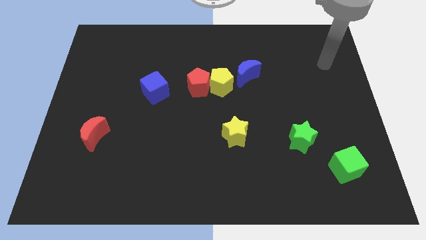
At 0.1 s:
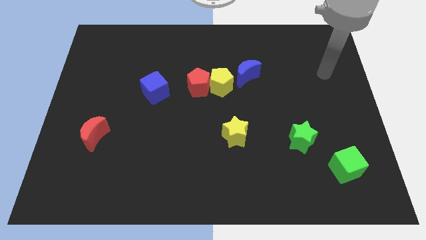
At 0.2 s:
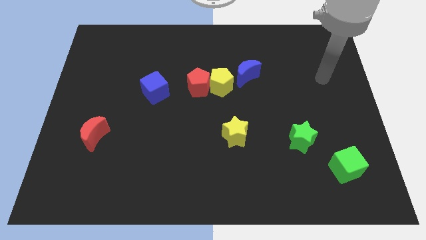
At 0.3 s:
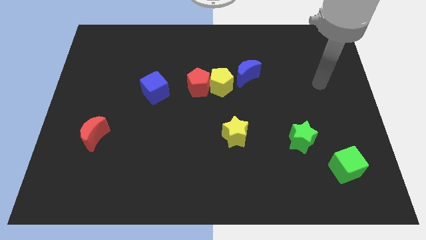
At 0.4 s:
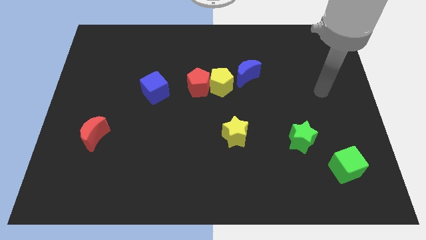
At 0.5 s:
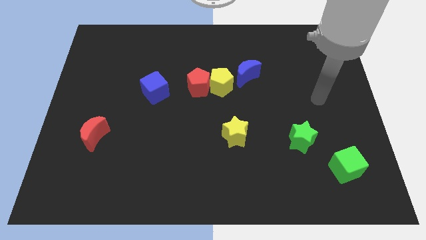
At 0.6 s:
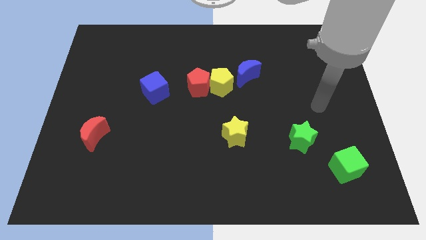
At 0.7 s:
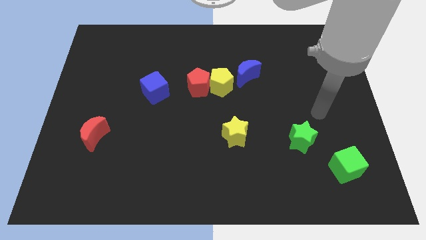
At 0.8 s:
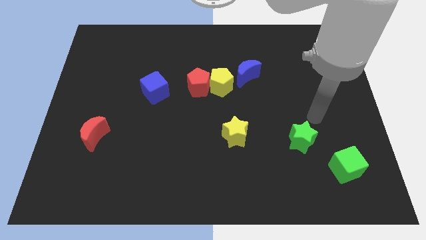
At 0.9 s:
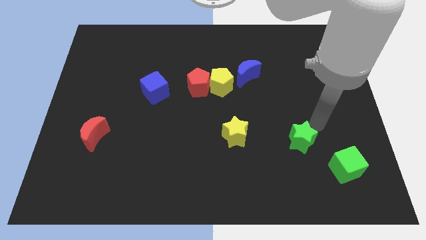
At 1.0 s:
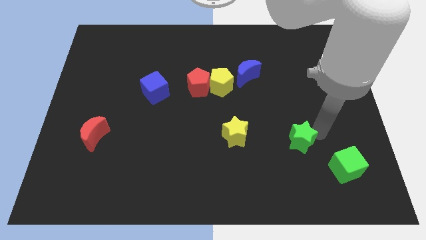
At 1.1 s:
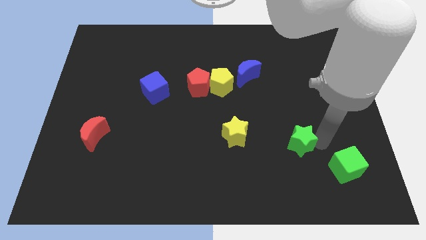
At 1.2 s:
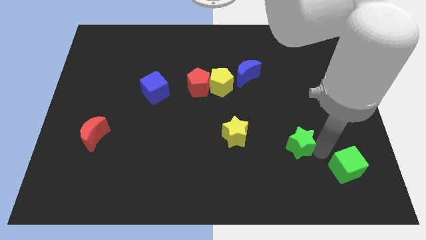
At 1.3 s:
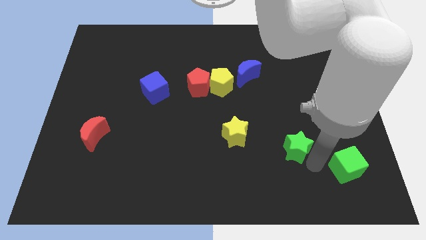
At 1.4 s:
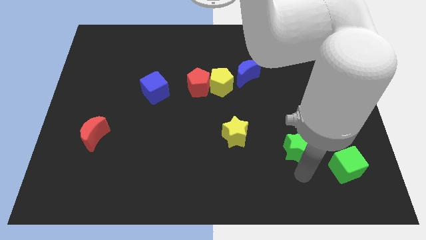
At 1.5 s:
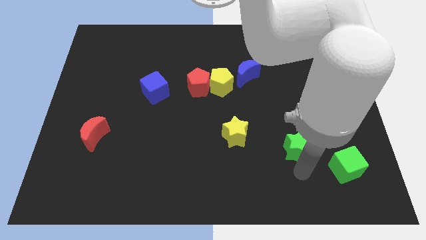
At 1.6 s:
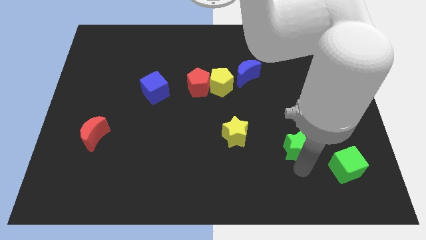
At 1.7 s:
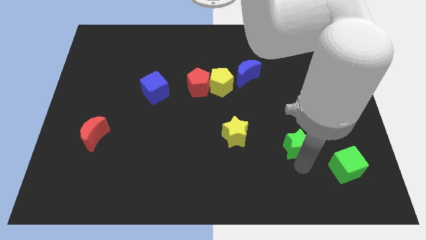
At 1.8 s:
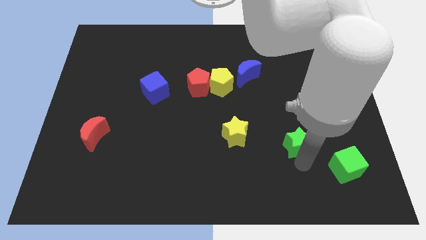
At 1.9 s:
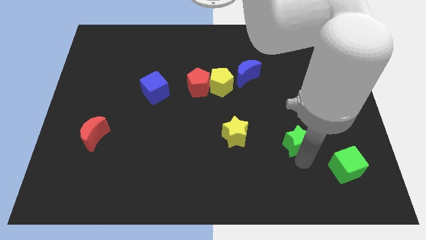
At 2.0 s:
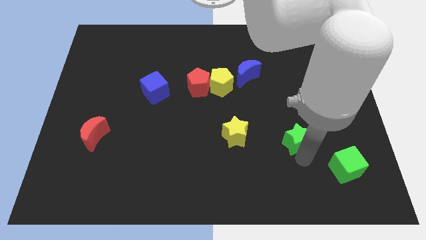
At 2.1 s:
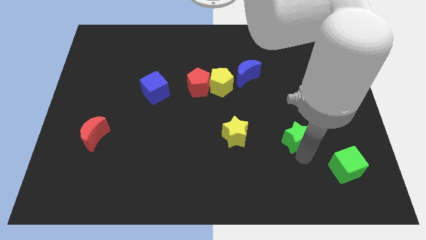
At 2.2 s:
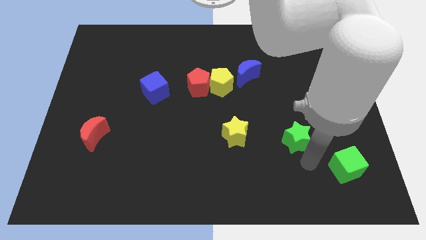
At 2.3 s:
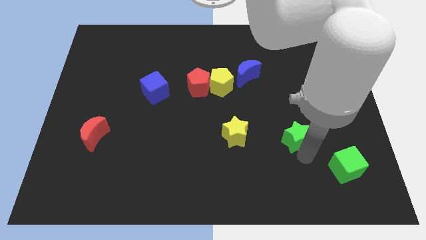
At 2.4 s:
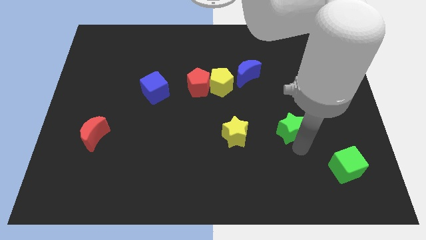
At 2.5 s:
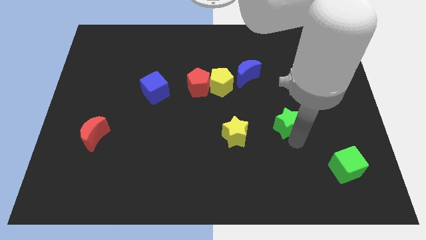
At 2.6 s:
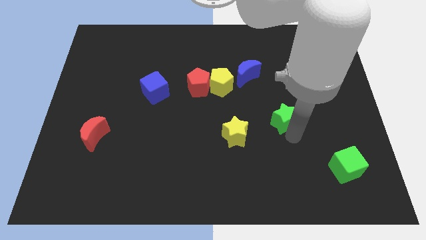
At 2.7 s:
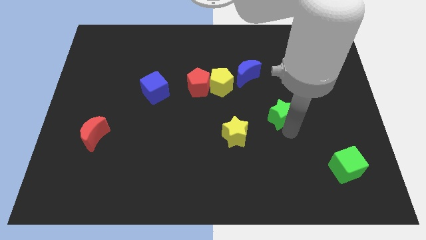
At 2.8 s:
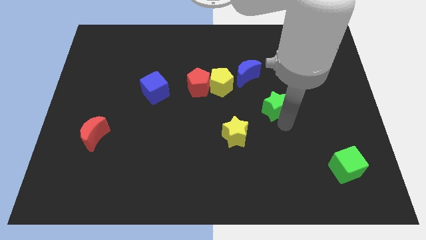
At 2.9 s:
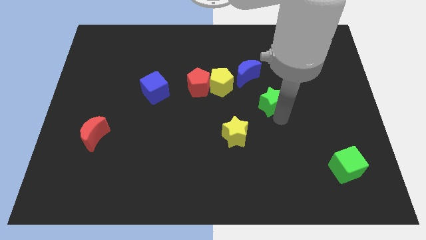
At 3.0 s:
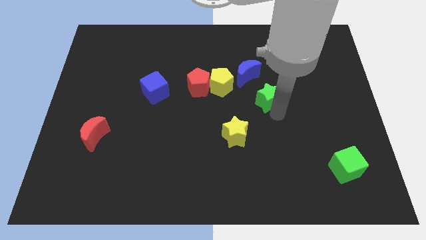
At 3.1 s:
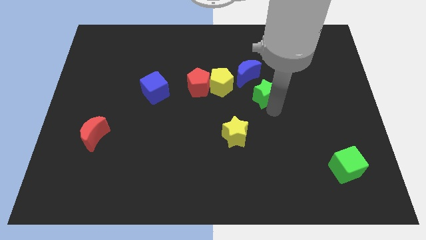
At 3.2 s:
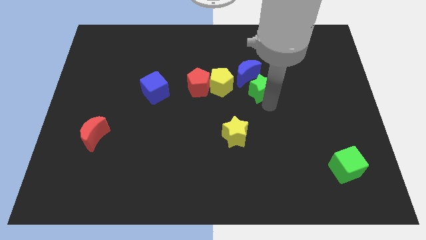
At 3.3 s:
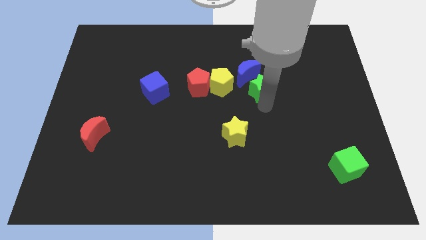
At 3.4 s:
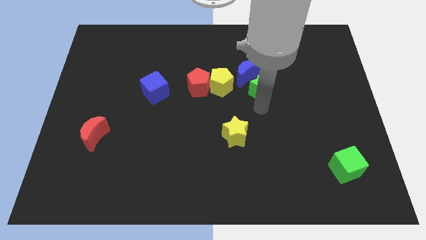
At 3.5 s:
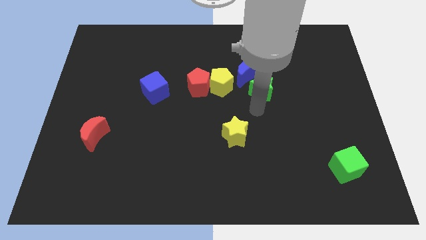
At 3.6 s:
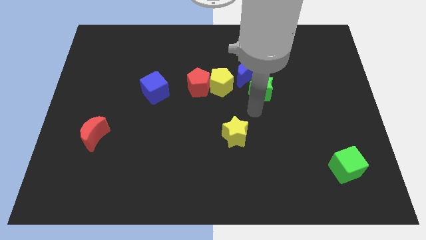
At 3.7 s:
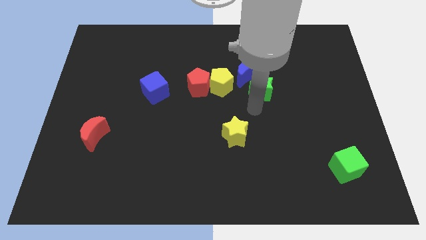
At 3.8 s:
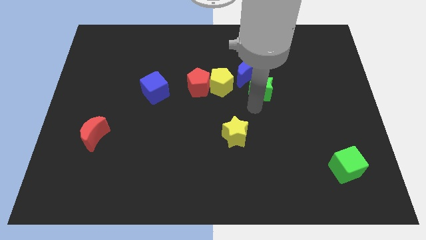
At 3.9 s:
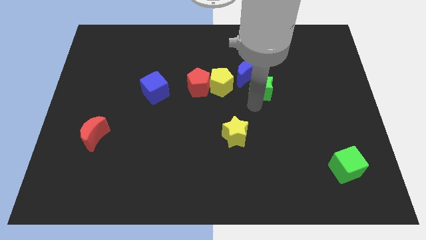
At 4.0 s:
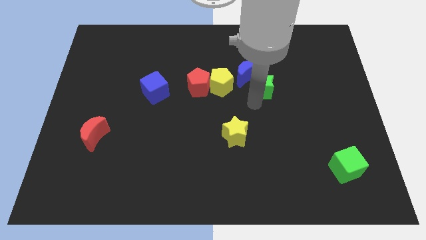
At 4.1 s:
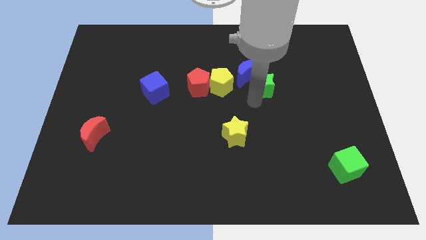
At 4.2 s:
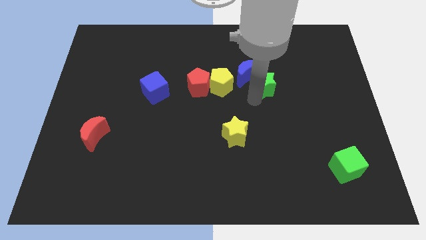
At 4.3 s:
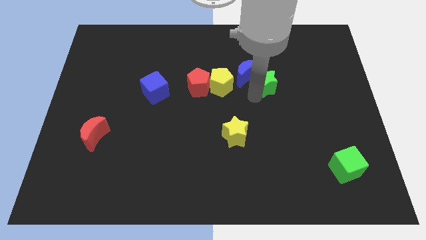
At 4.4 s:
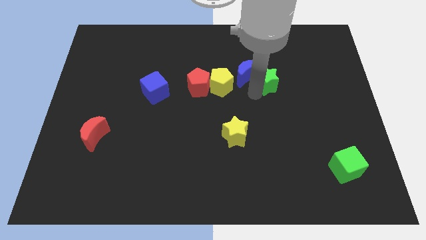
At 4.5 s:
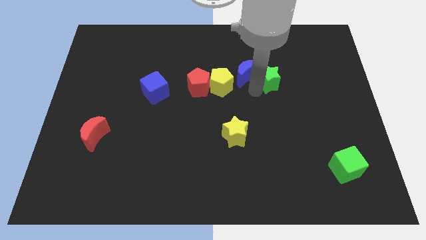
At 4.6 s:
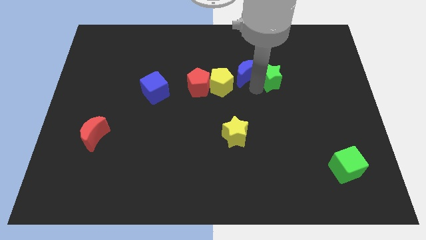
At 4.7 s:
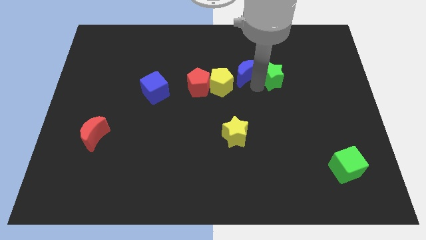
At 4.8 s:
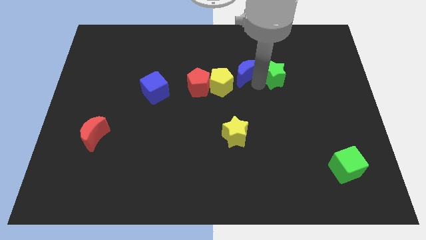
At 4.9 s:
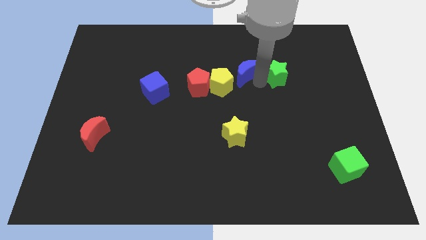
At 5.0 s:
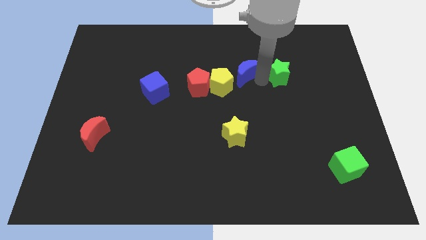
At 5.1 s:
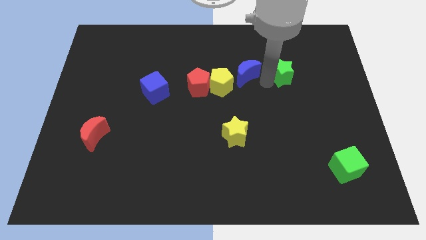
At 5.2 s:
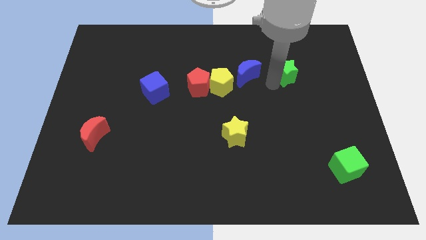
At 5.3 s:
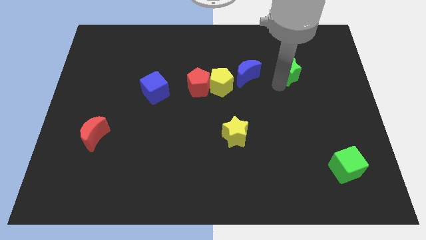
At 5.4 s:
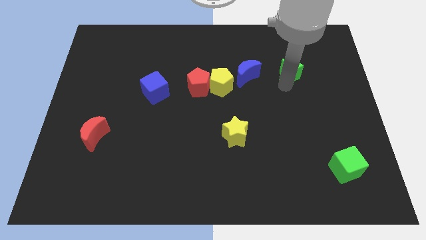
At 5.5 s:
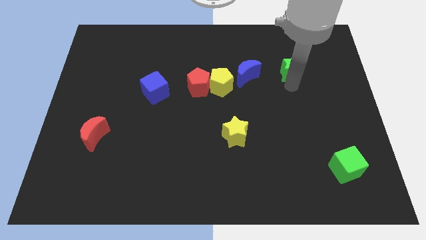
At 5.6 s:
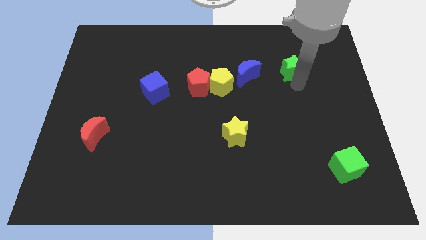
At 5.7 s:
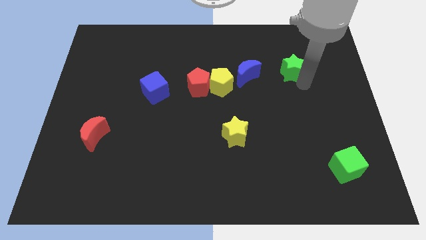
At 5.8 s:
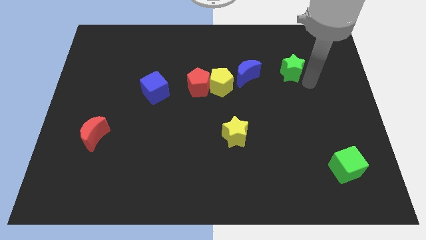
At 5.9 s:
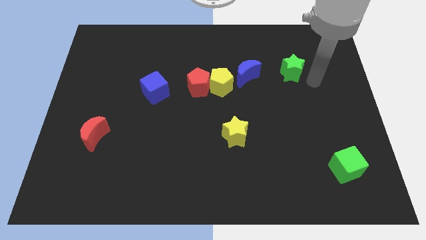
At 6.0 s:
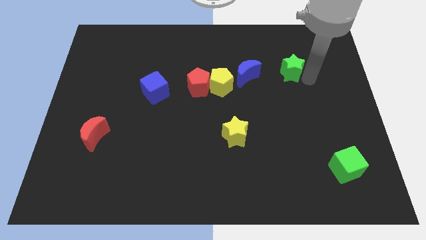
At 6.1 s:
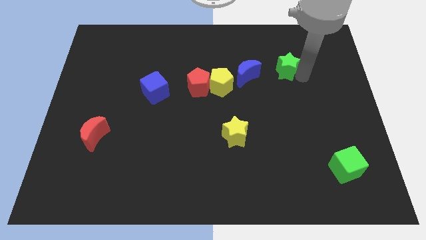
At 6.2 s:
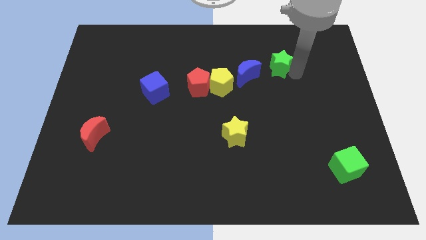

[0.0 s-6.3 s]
slide the green star to the top right of the blue moon

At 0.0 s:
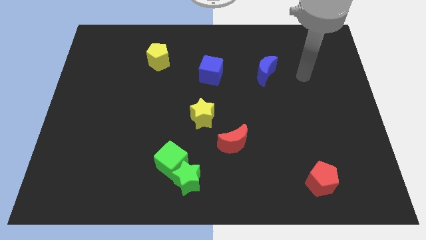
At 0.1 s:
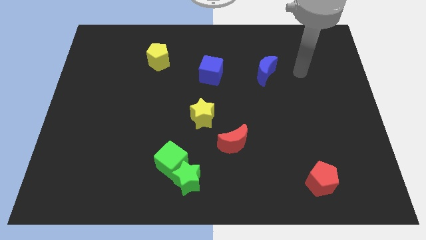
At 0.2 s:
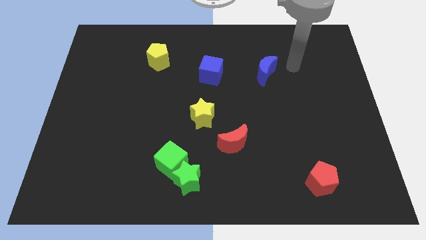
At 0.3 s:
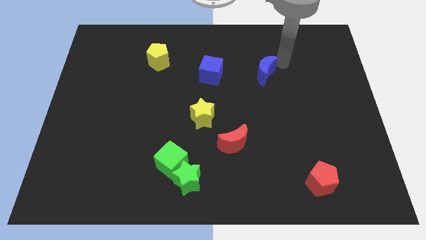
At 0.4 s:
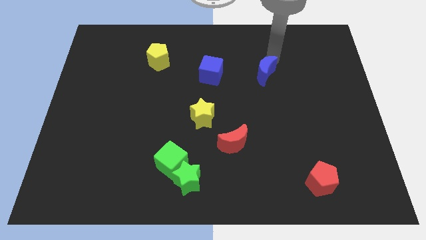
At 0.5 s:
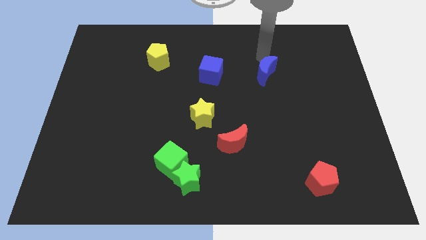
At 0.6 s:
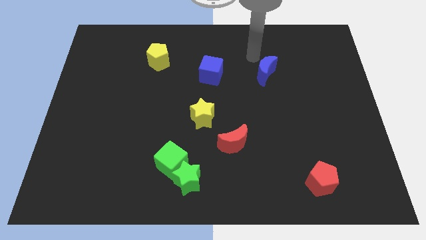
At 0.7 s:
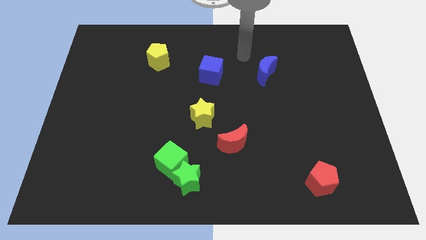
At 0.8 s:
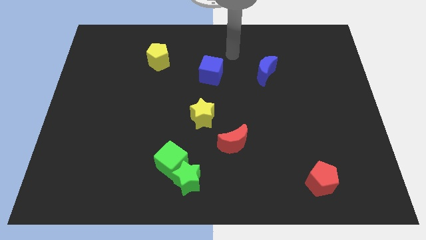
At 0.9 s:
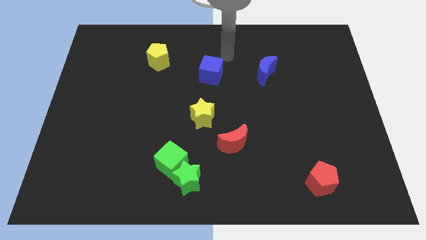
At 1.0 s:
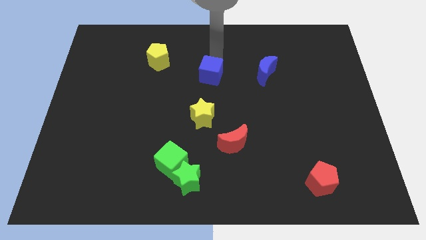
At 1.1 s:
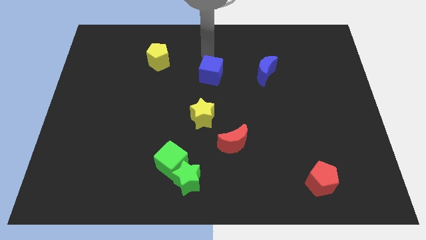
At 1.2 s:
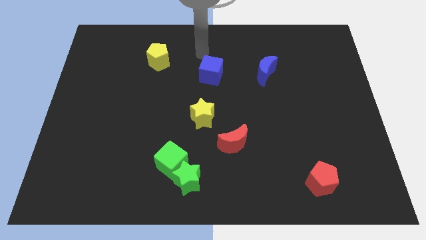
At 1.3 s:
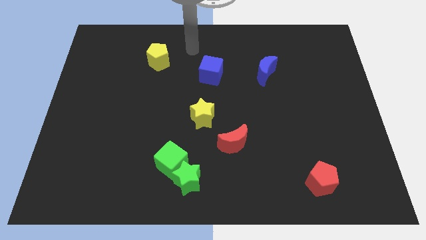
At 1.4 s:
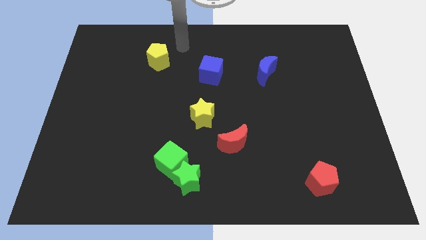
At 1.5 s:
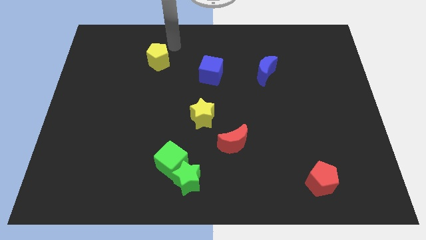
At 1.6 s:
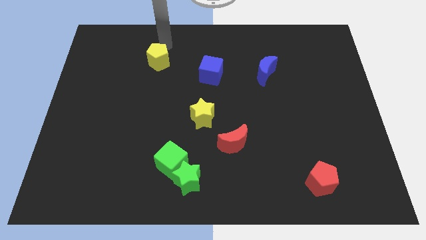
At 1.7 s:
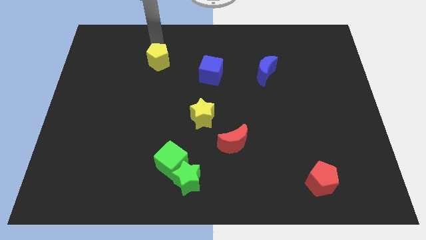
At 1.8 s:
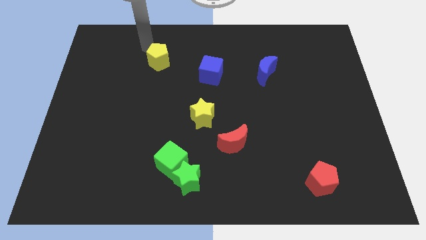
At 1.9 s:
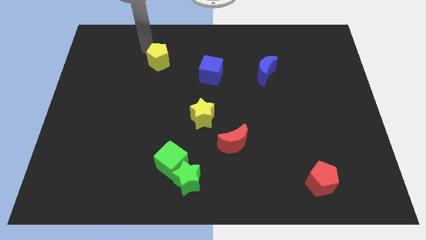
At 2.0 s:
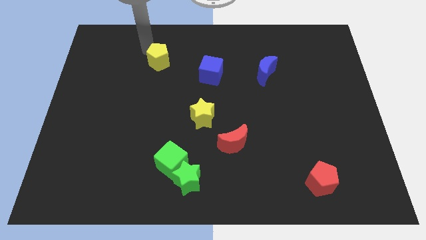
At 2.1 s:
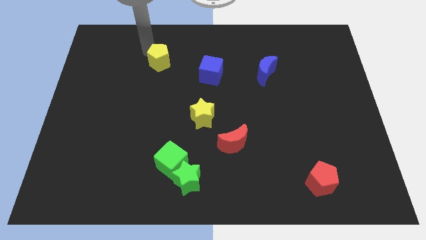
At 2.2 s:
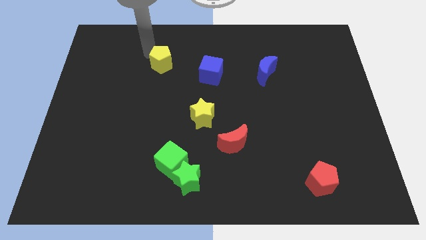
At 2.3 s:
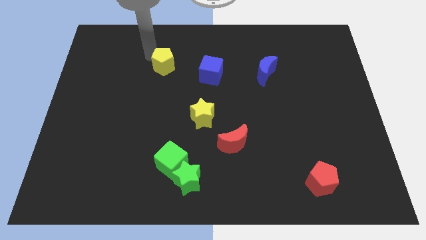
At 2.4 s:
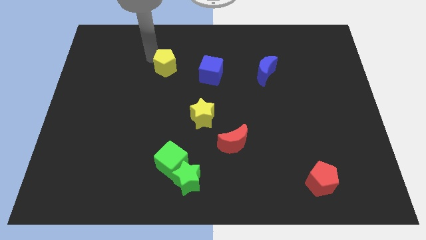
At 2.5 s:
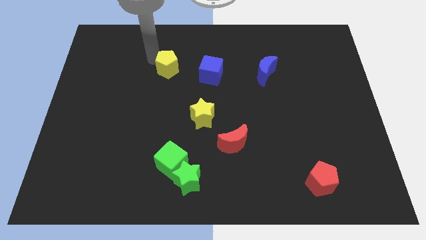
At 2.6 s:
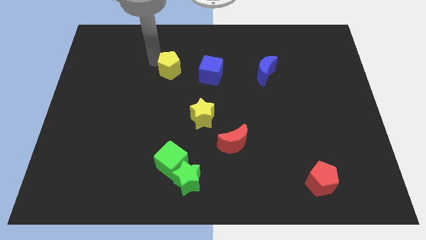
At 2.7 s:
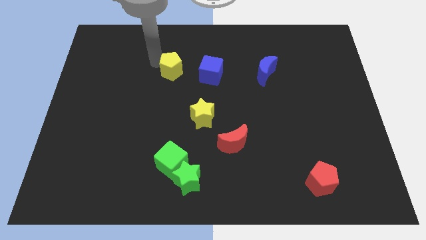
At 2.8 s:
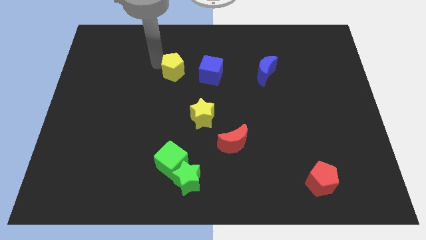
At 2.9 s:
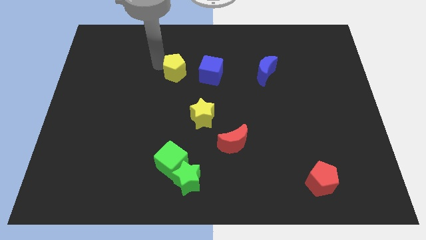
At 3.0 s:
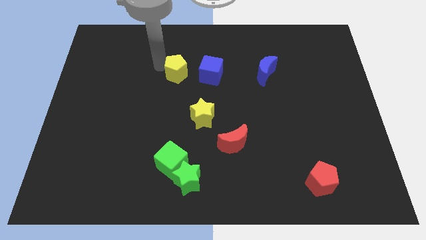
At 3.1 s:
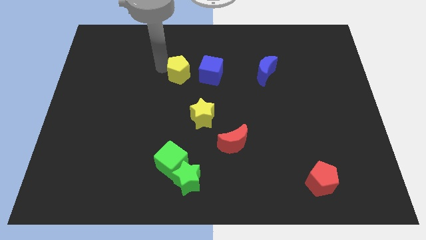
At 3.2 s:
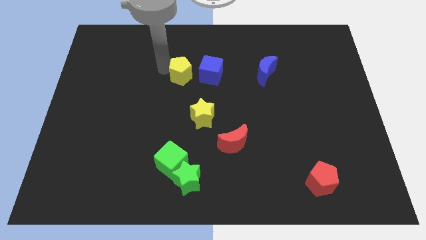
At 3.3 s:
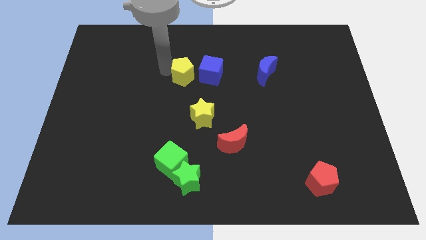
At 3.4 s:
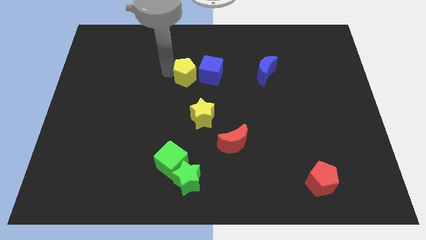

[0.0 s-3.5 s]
push the yellow pentagon to the top of the yellow star
